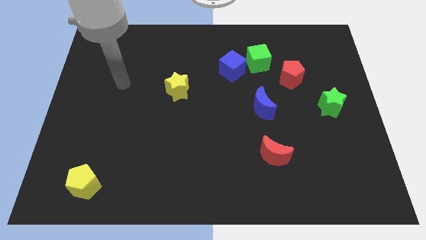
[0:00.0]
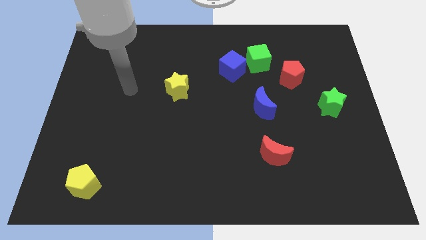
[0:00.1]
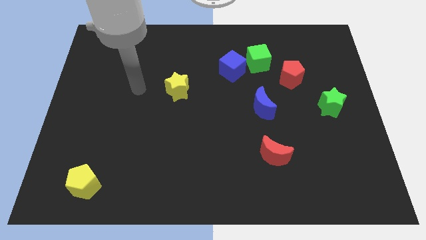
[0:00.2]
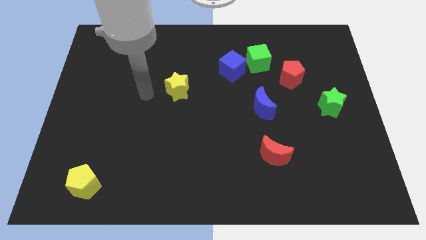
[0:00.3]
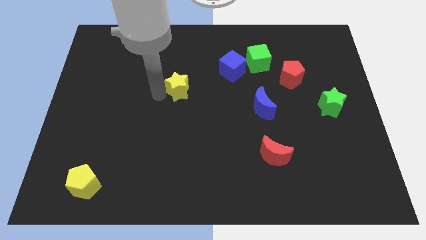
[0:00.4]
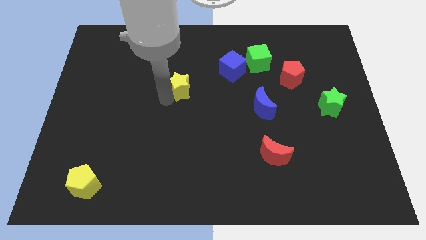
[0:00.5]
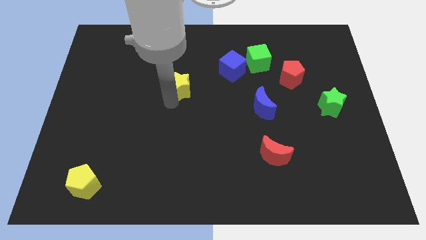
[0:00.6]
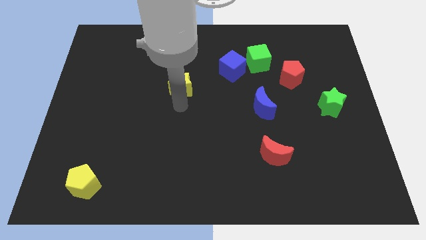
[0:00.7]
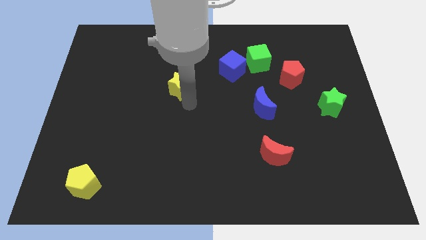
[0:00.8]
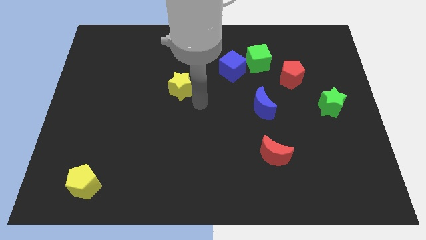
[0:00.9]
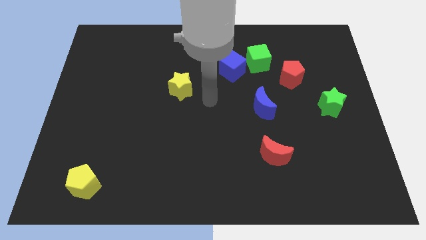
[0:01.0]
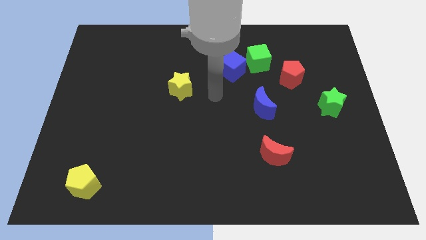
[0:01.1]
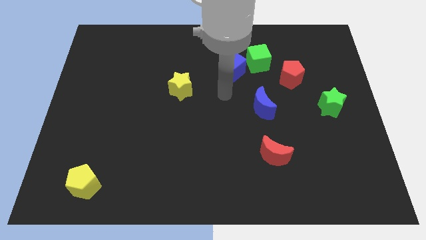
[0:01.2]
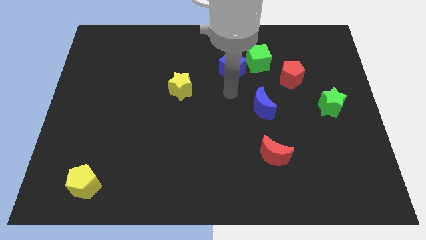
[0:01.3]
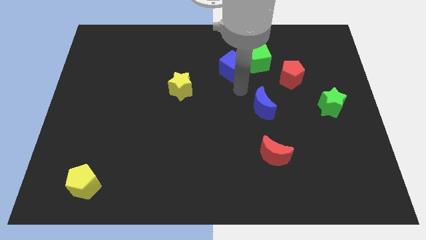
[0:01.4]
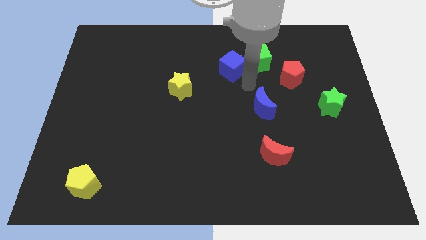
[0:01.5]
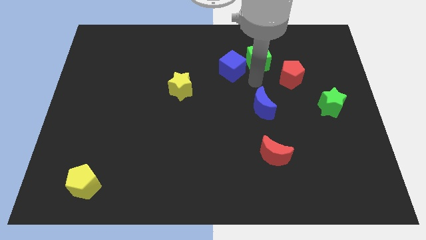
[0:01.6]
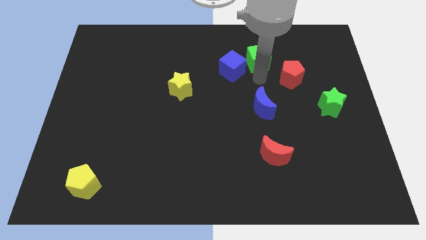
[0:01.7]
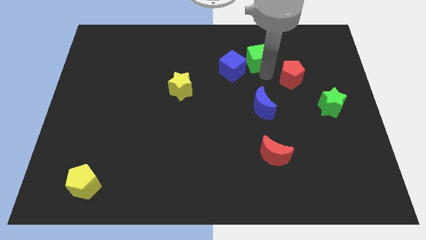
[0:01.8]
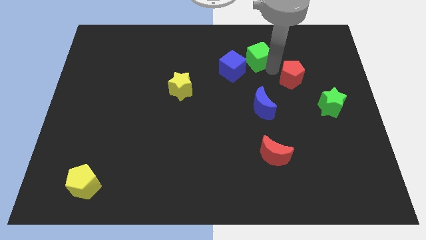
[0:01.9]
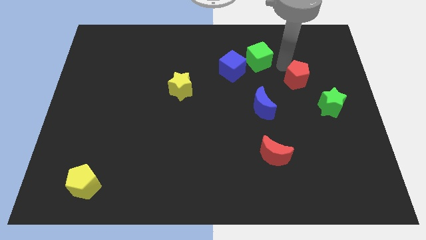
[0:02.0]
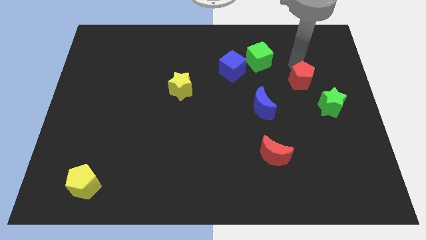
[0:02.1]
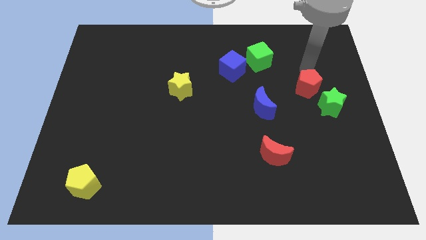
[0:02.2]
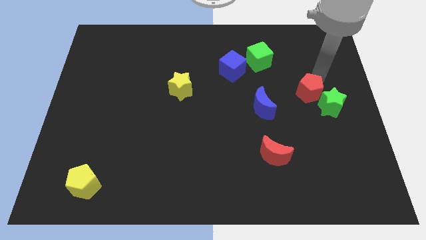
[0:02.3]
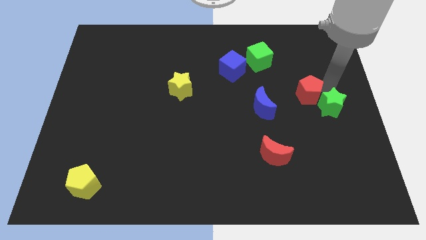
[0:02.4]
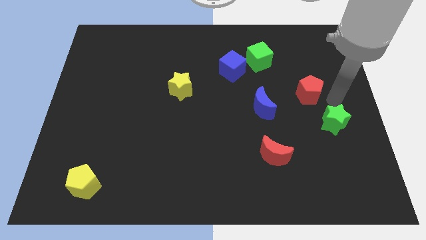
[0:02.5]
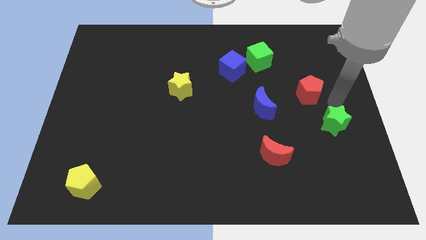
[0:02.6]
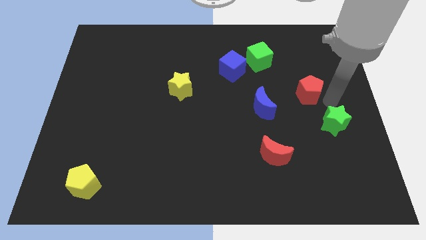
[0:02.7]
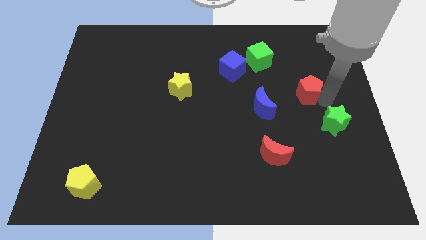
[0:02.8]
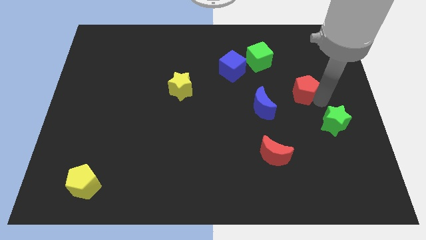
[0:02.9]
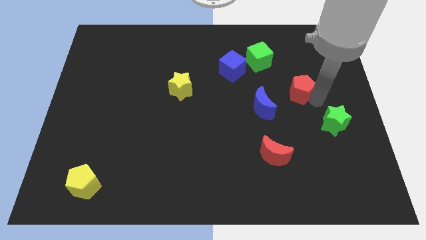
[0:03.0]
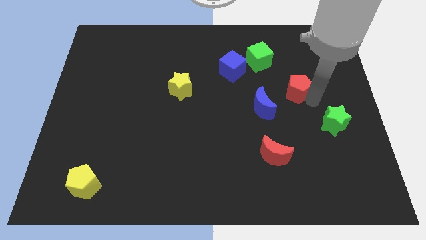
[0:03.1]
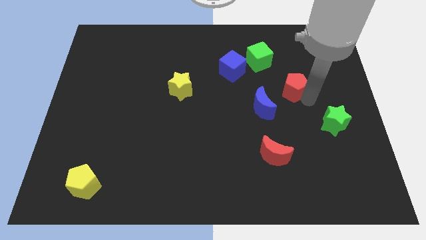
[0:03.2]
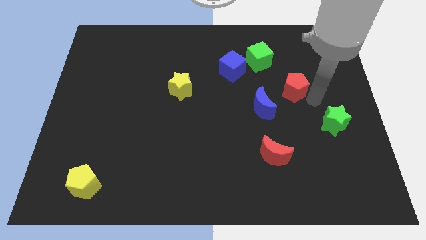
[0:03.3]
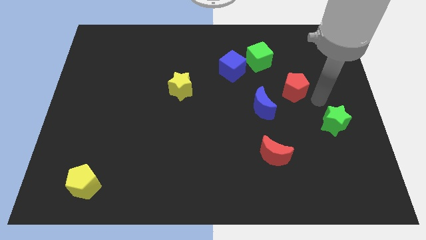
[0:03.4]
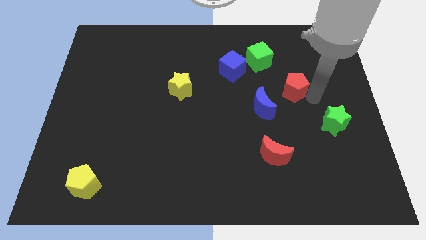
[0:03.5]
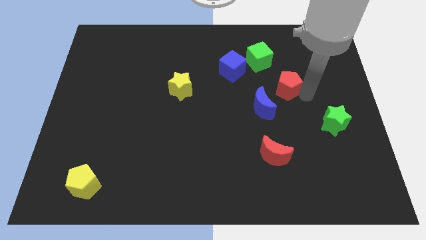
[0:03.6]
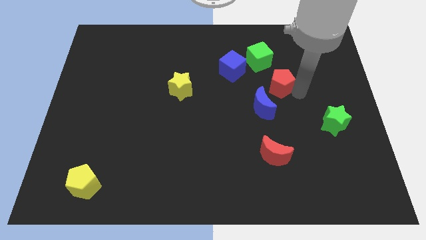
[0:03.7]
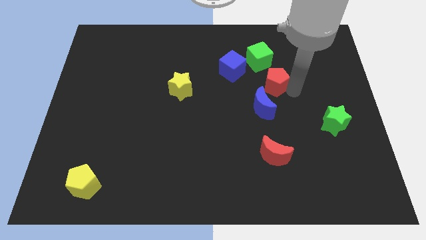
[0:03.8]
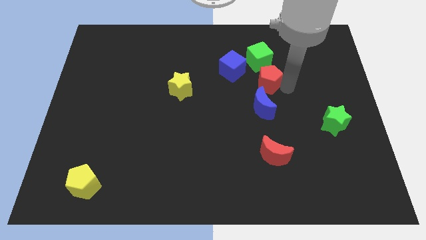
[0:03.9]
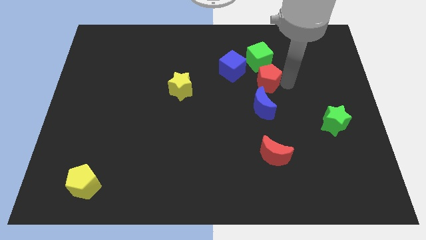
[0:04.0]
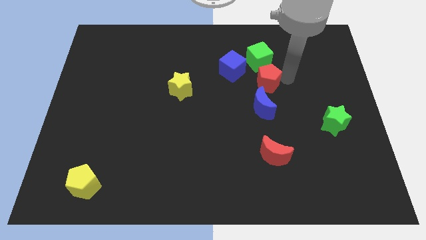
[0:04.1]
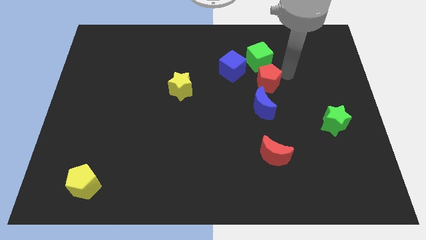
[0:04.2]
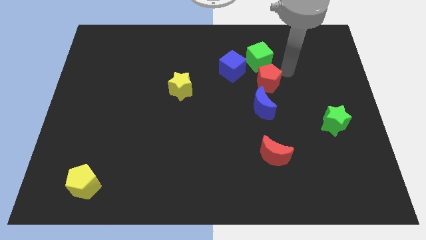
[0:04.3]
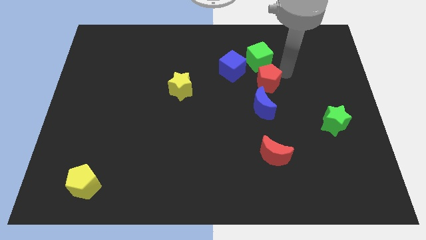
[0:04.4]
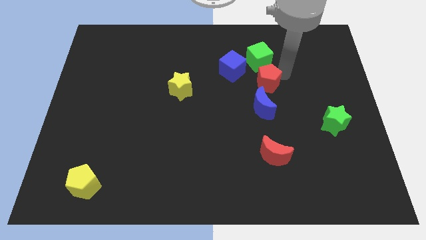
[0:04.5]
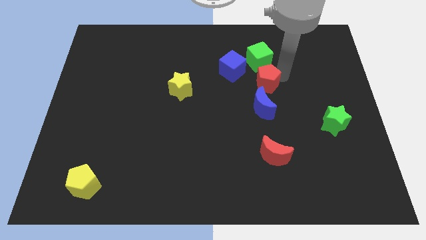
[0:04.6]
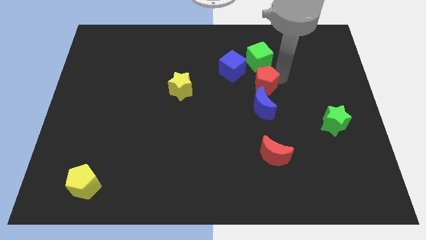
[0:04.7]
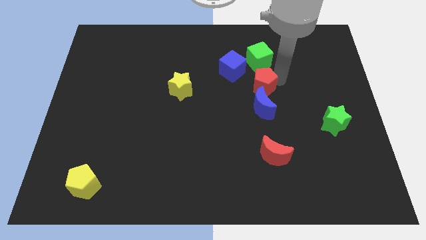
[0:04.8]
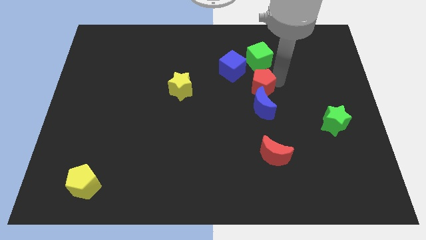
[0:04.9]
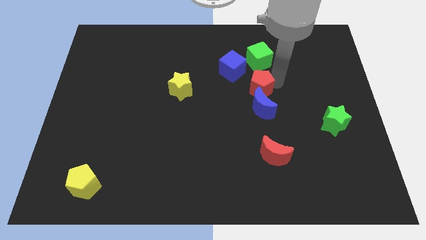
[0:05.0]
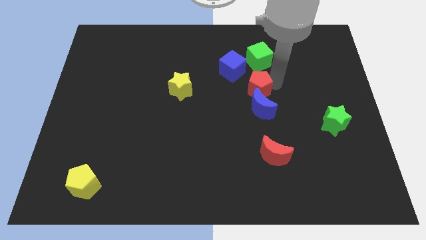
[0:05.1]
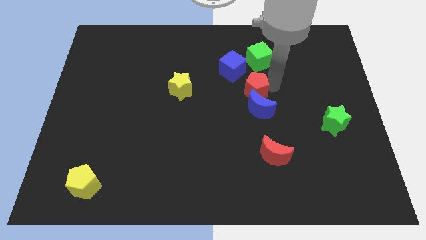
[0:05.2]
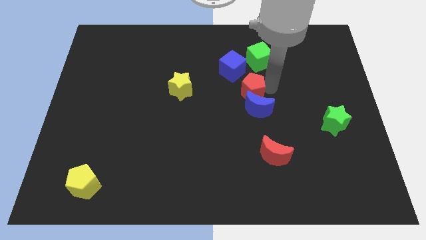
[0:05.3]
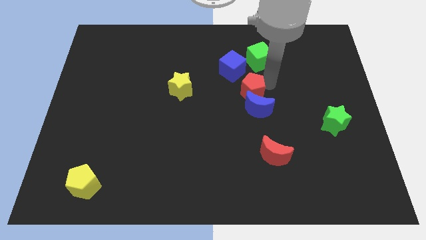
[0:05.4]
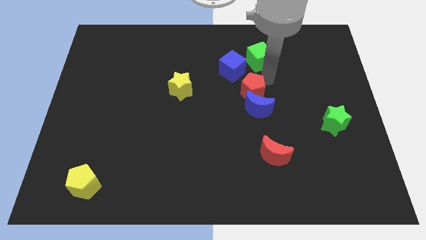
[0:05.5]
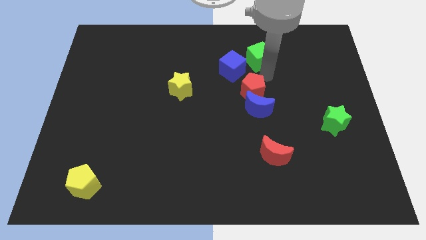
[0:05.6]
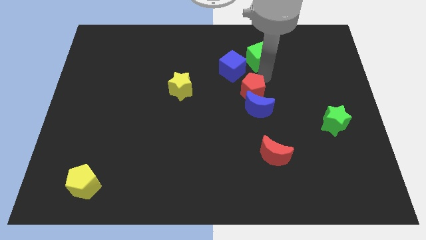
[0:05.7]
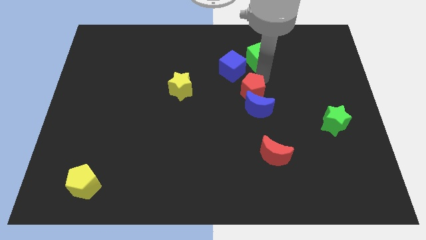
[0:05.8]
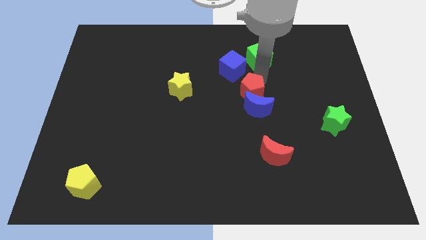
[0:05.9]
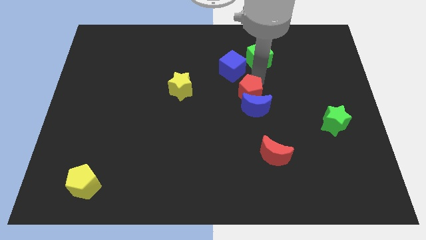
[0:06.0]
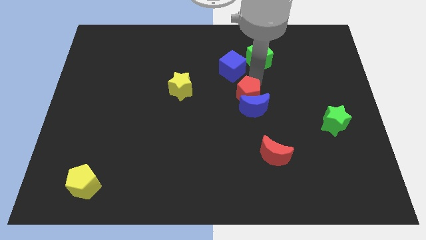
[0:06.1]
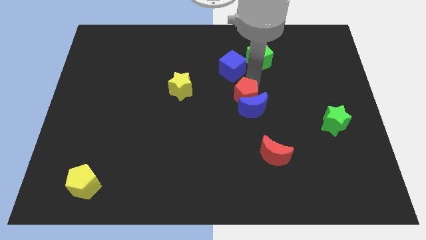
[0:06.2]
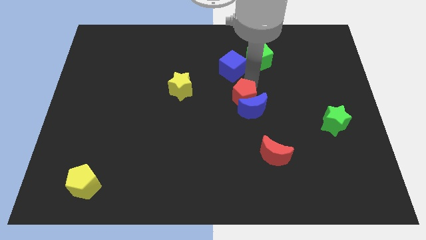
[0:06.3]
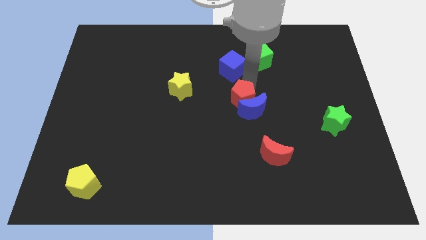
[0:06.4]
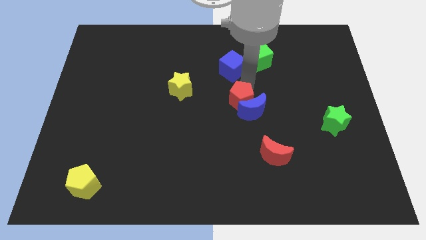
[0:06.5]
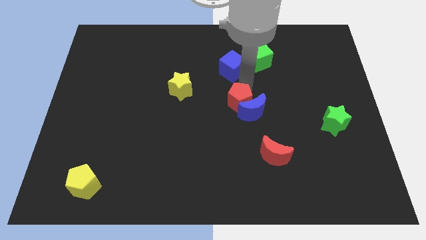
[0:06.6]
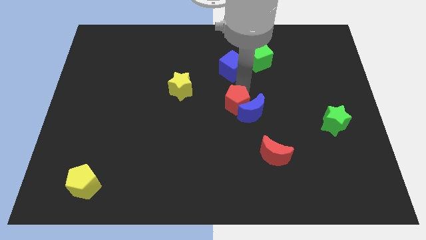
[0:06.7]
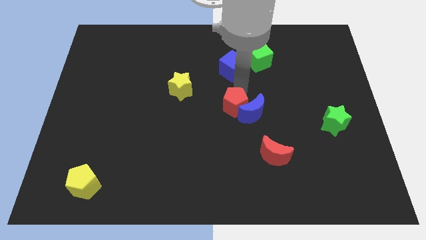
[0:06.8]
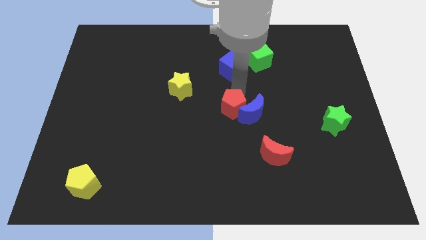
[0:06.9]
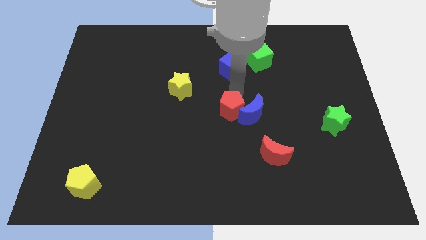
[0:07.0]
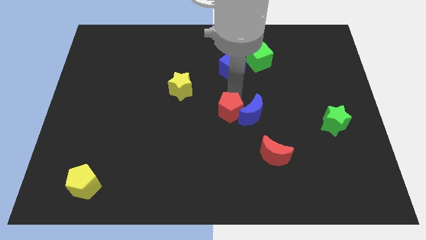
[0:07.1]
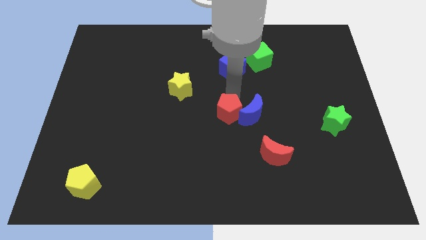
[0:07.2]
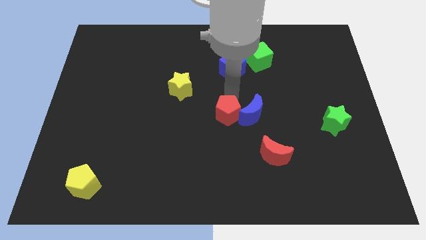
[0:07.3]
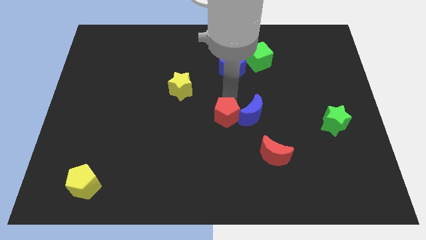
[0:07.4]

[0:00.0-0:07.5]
slide the red pentagon diagonally down and left

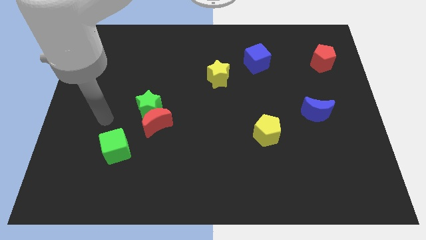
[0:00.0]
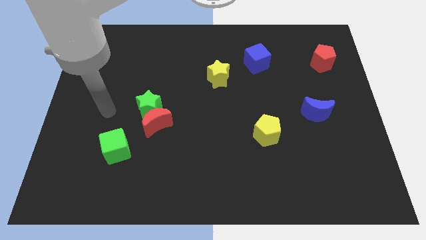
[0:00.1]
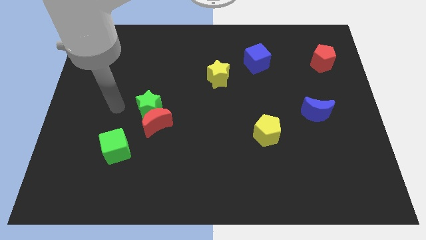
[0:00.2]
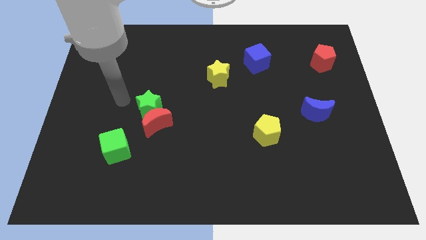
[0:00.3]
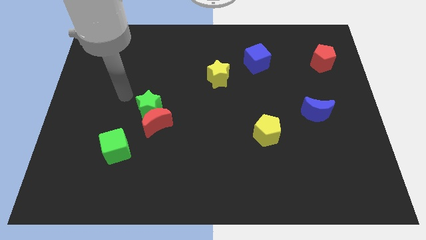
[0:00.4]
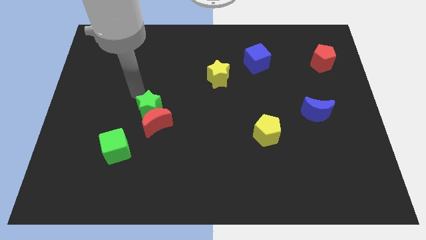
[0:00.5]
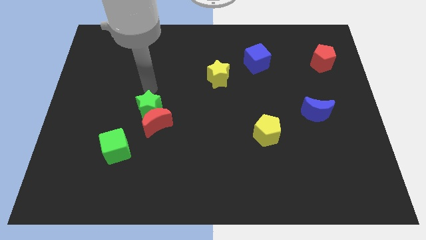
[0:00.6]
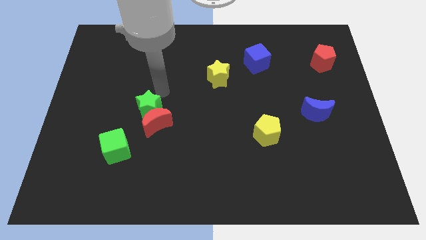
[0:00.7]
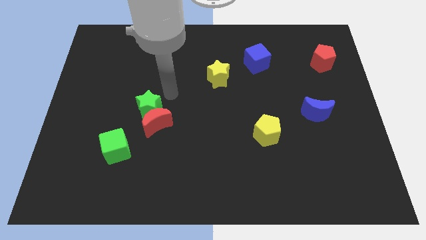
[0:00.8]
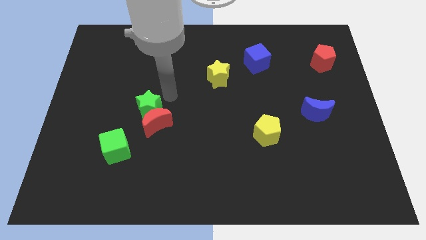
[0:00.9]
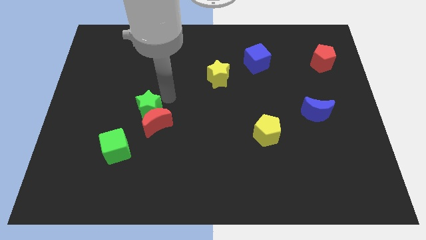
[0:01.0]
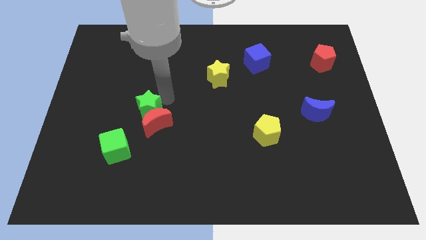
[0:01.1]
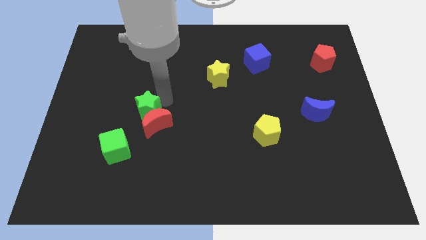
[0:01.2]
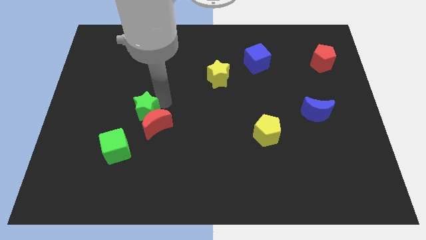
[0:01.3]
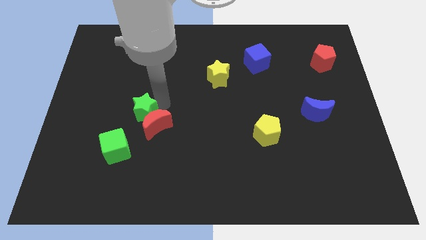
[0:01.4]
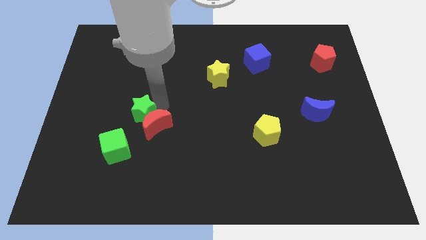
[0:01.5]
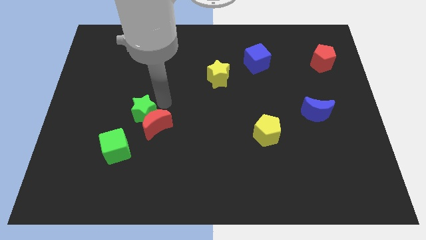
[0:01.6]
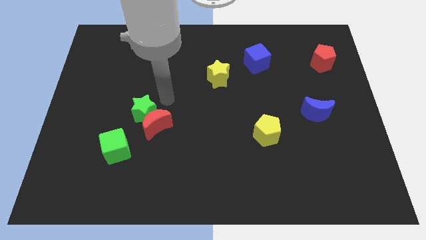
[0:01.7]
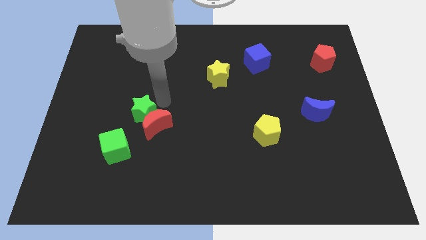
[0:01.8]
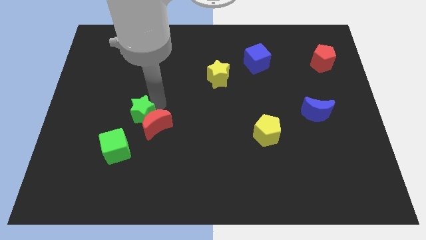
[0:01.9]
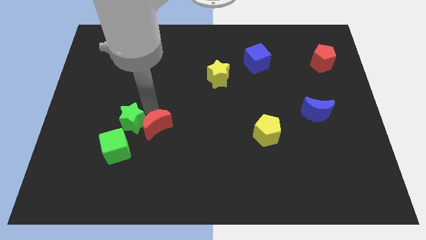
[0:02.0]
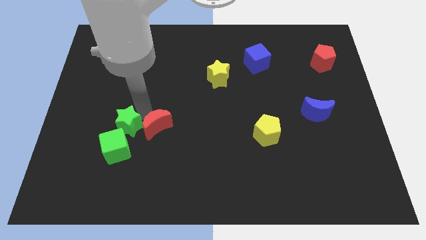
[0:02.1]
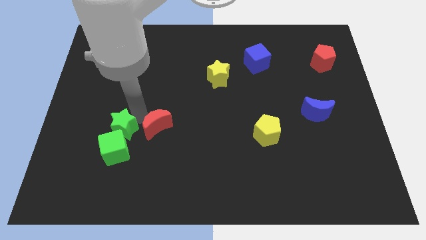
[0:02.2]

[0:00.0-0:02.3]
move the green star slightly diagonally down and to the left
